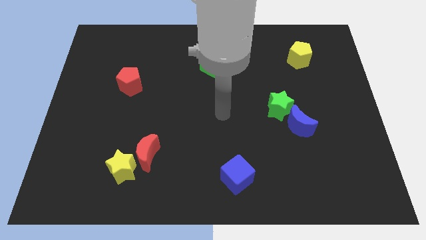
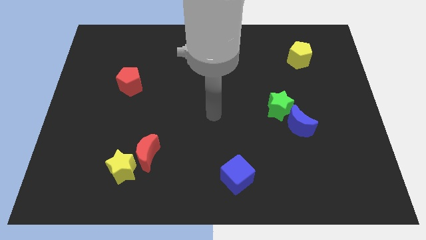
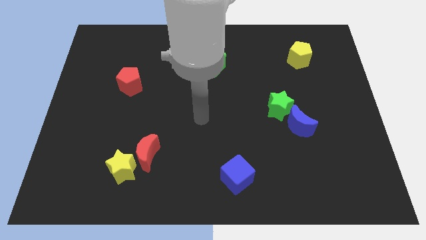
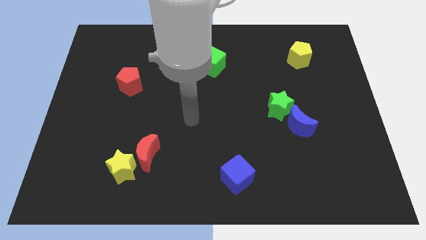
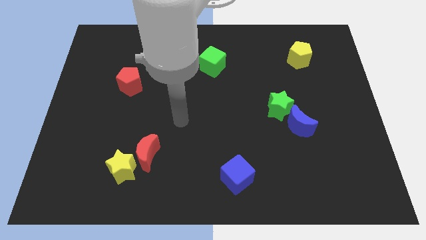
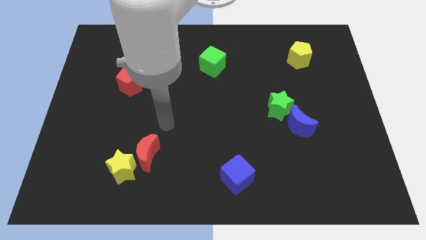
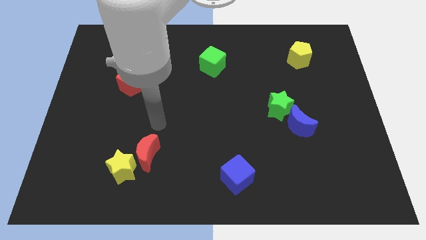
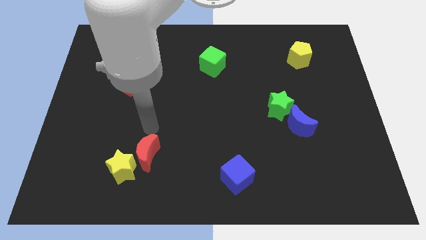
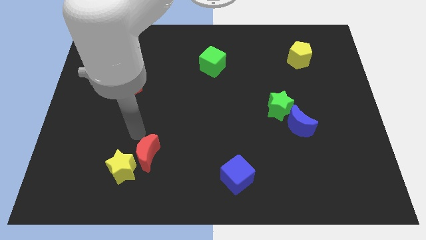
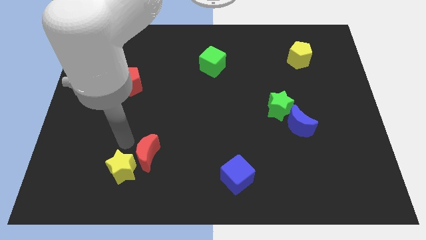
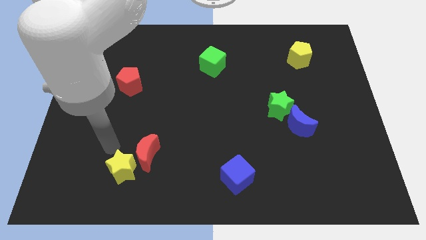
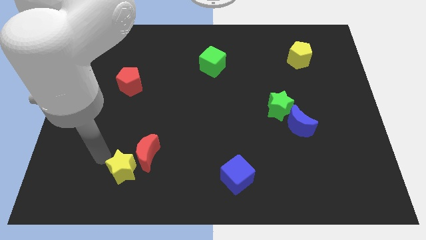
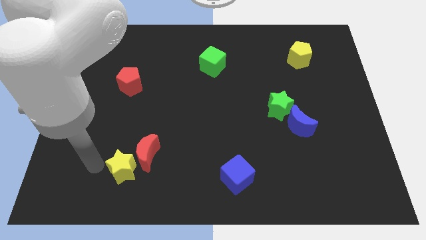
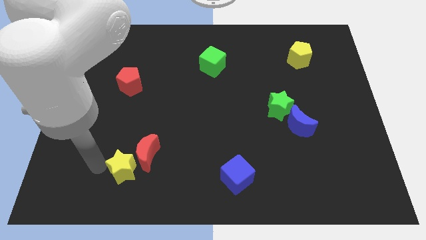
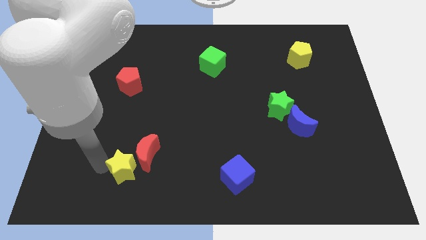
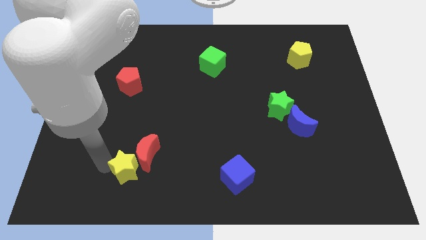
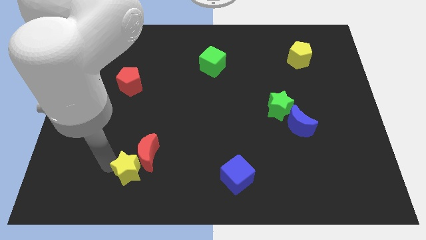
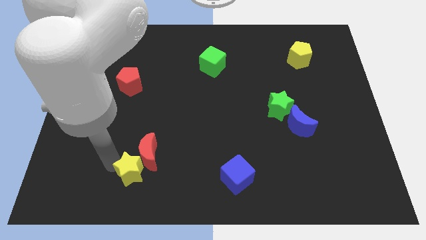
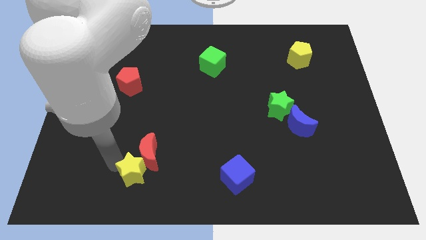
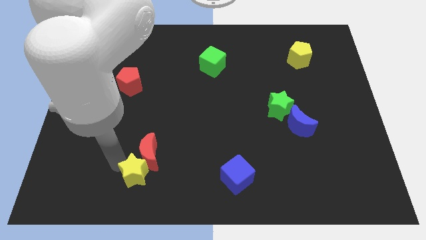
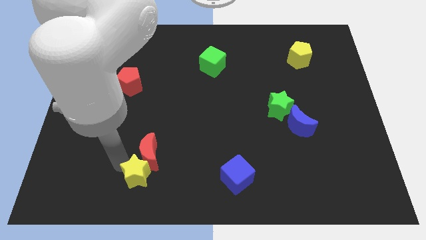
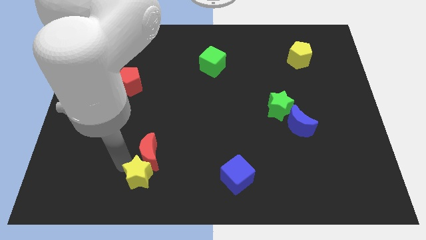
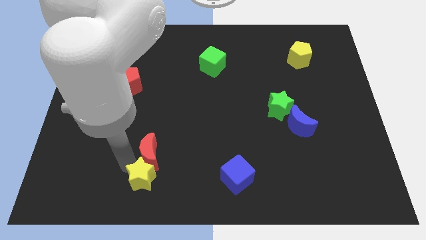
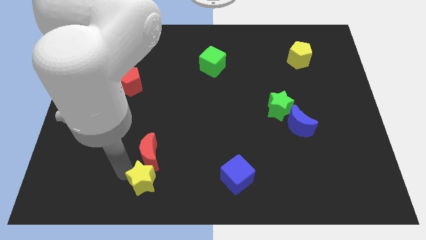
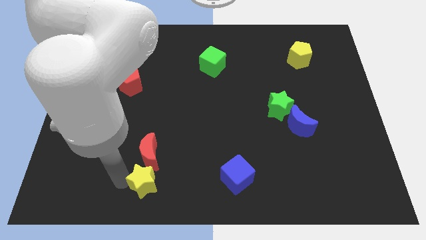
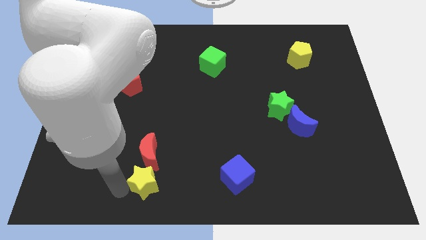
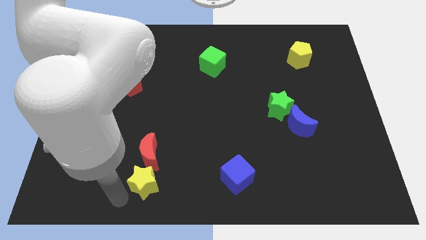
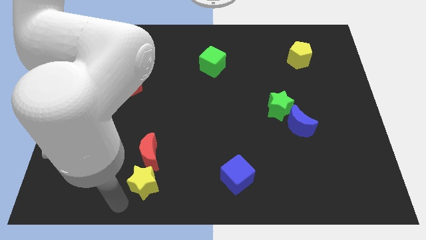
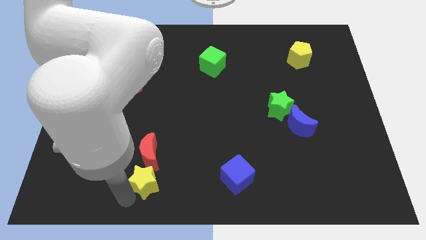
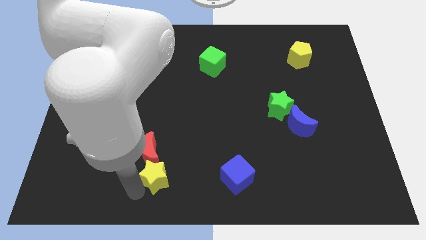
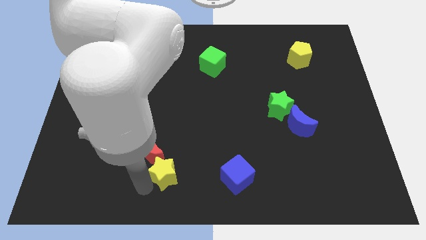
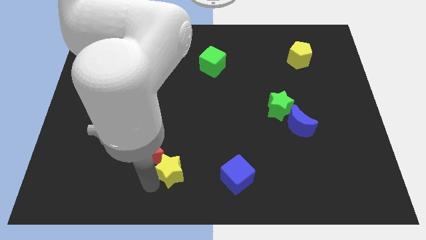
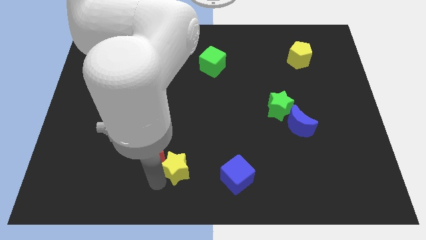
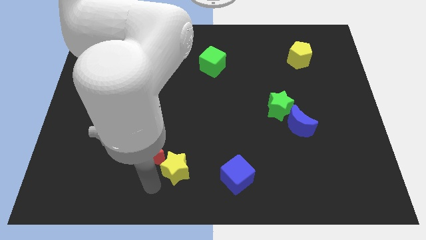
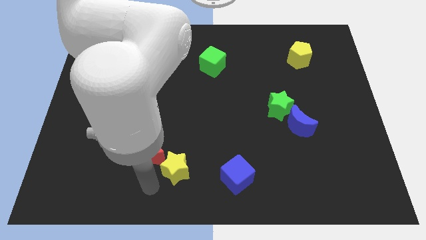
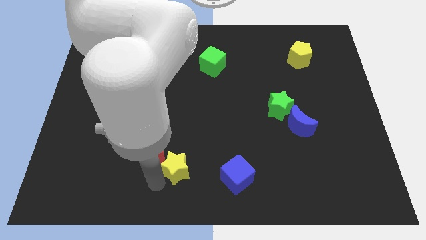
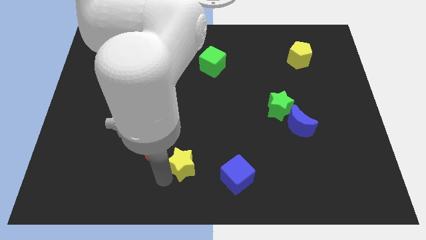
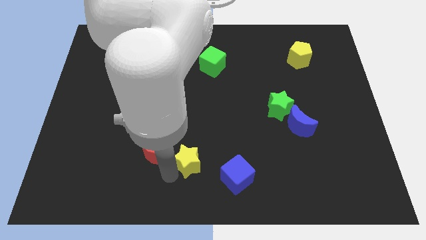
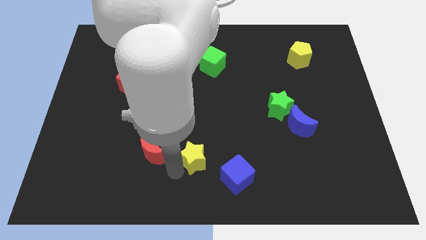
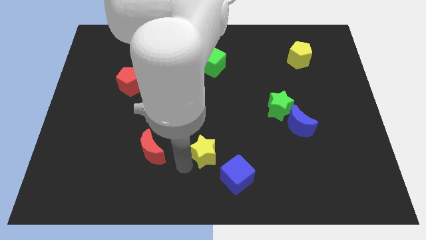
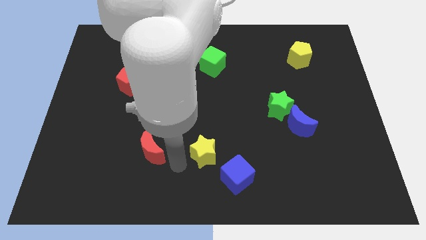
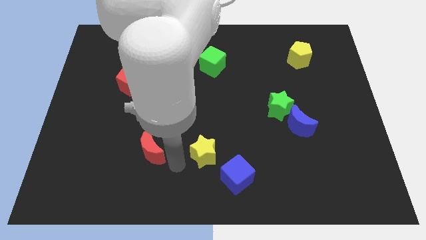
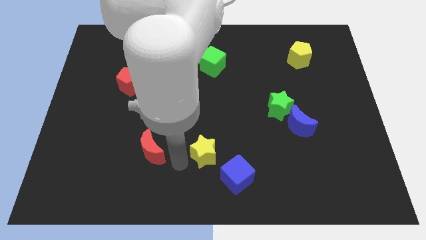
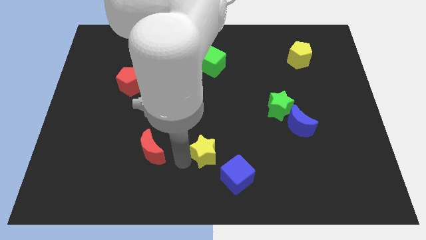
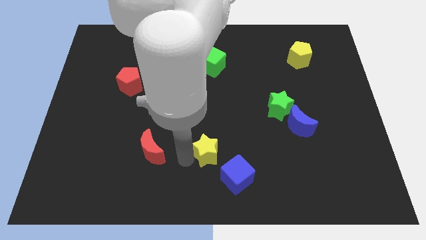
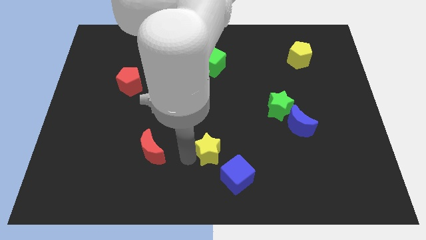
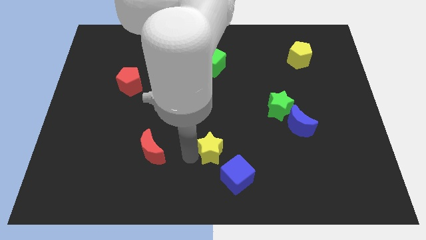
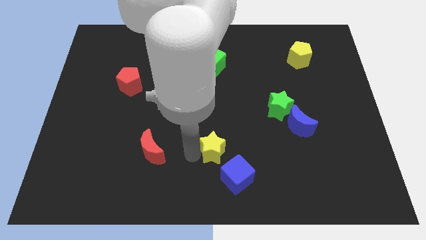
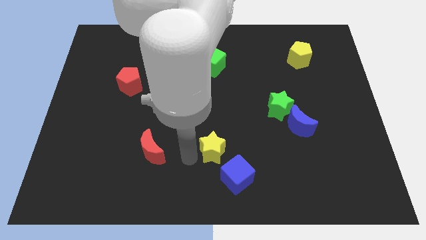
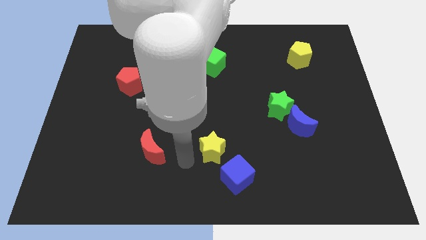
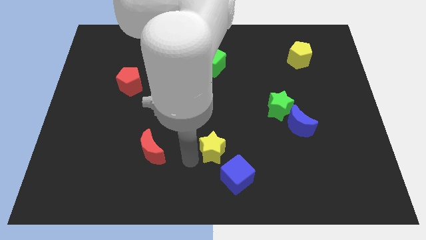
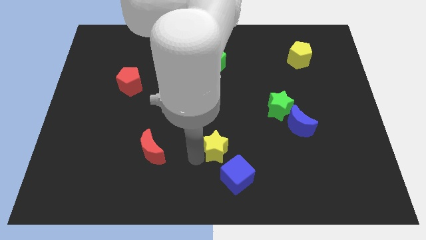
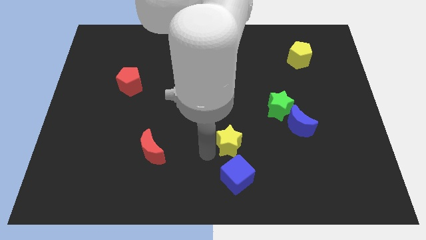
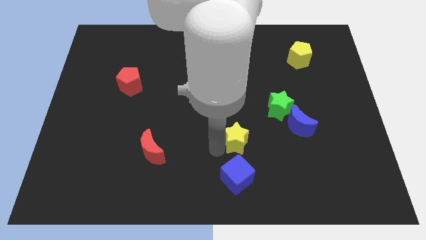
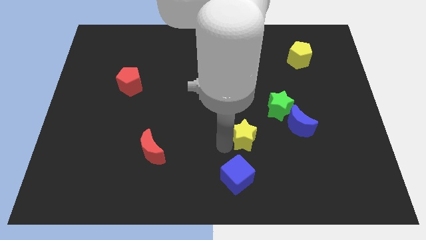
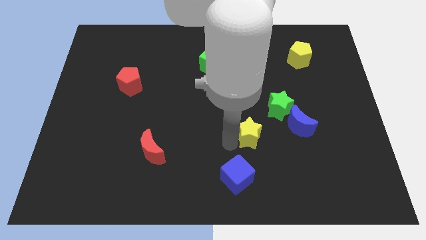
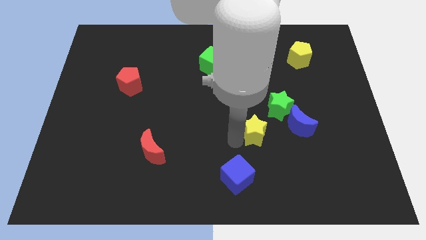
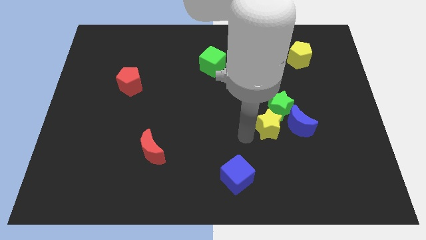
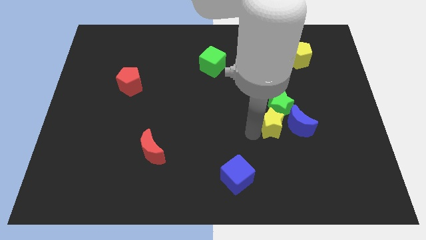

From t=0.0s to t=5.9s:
put the yellow star towards the blue moon

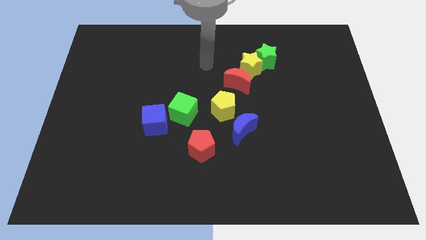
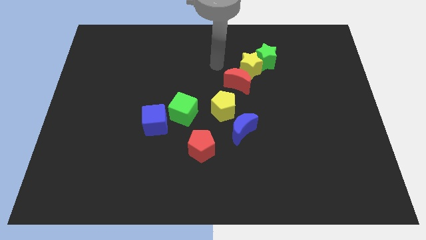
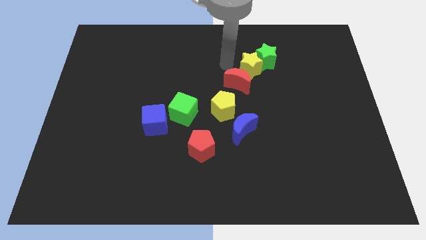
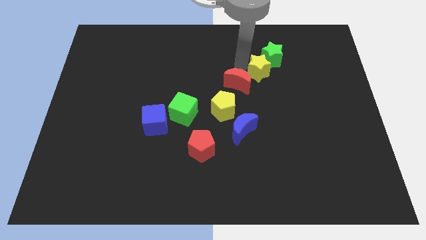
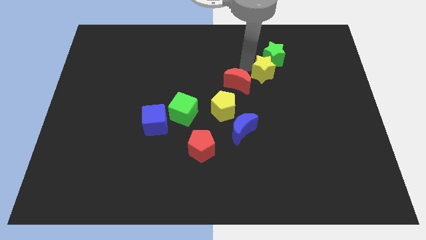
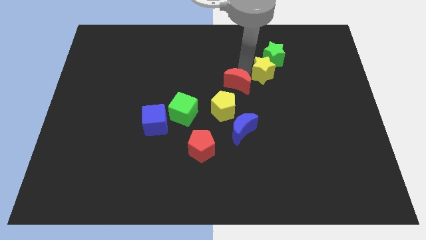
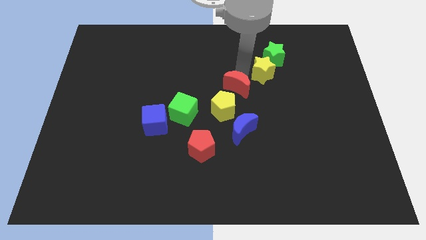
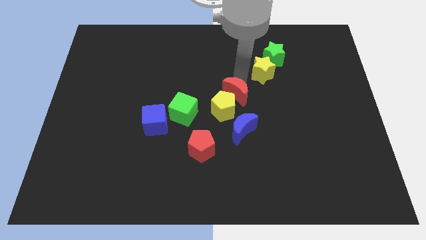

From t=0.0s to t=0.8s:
put the red moon towards the yellow pentagon
